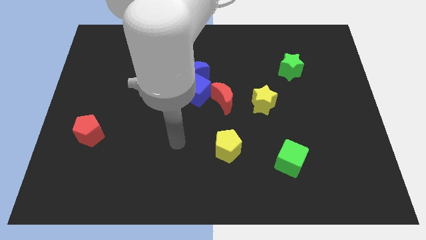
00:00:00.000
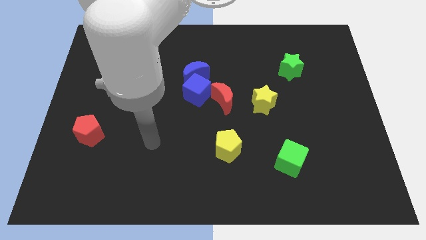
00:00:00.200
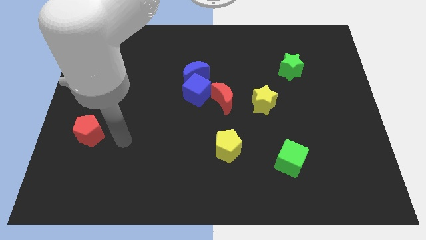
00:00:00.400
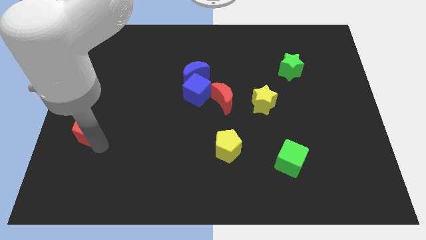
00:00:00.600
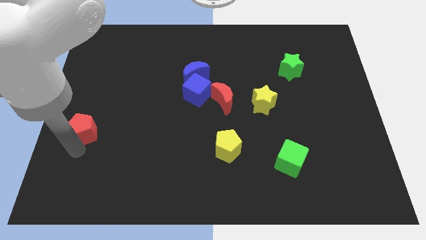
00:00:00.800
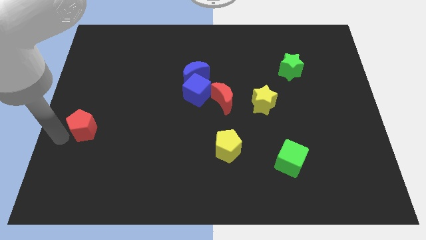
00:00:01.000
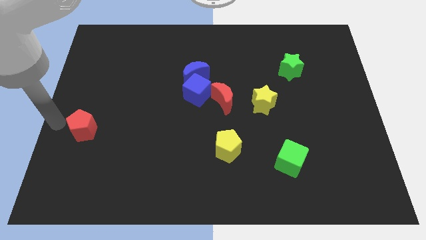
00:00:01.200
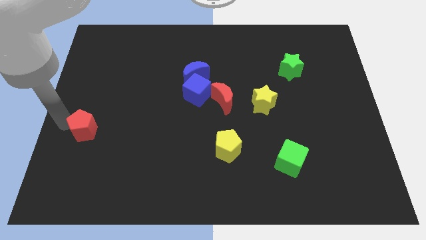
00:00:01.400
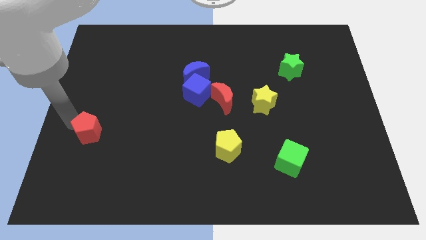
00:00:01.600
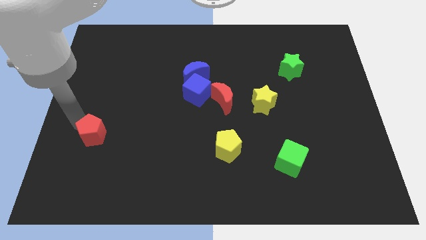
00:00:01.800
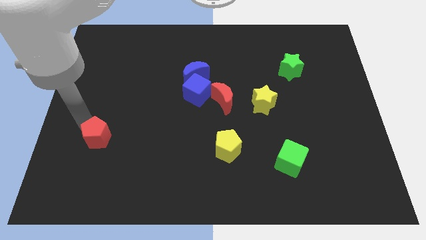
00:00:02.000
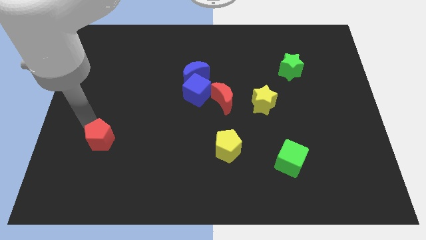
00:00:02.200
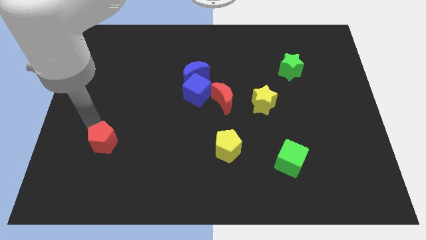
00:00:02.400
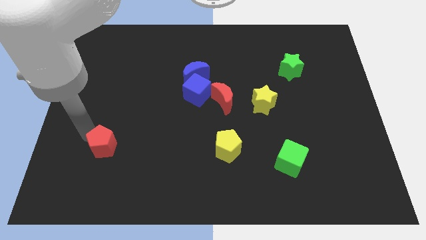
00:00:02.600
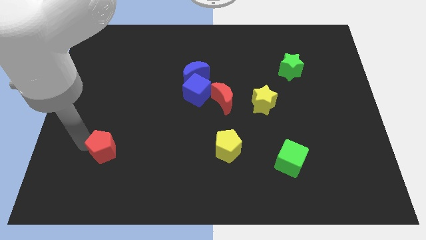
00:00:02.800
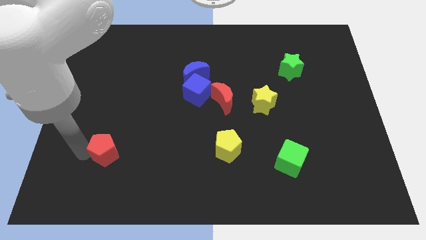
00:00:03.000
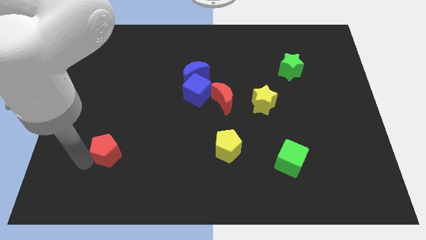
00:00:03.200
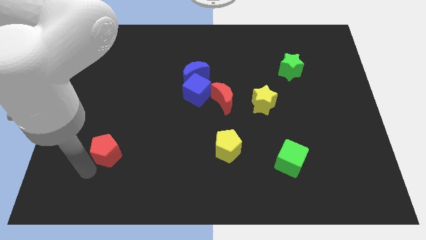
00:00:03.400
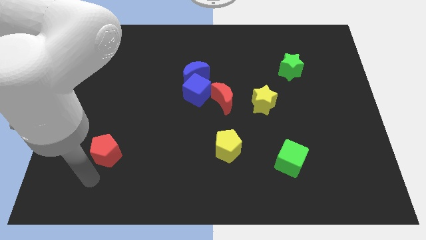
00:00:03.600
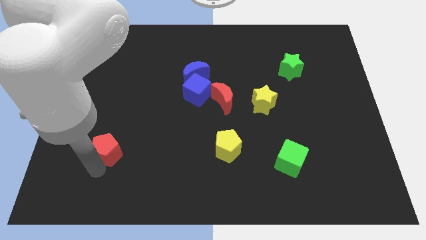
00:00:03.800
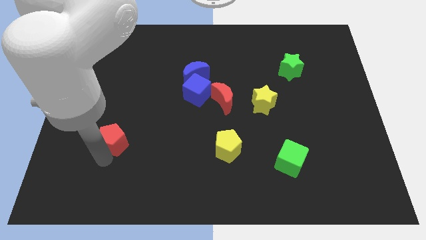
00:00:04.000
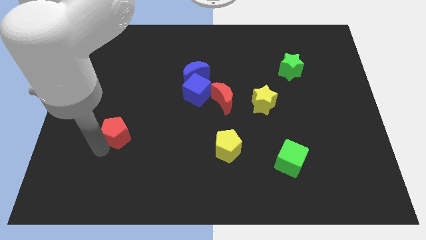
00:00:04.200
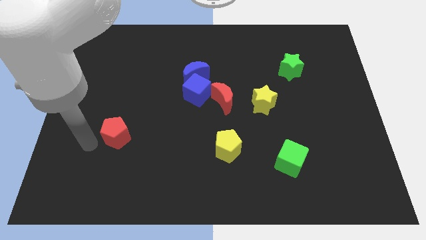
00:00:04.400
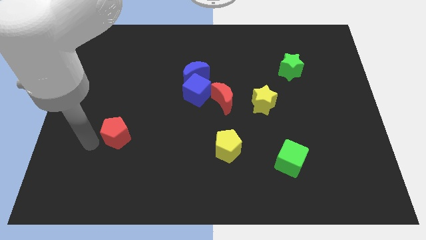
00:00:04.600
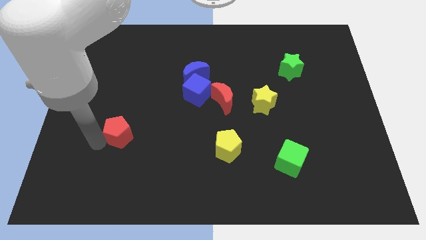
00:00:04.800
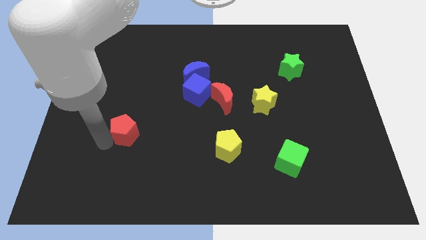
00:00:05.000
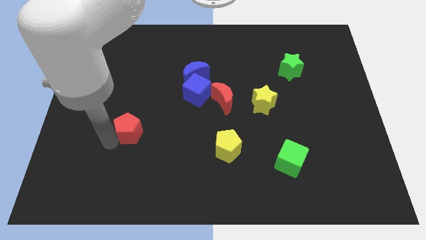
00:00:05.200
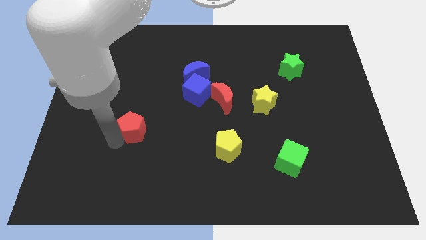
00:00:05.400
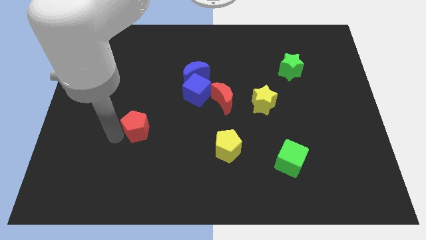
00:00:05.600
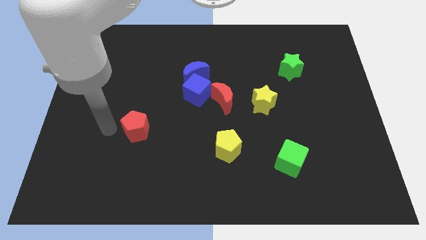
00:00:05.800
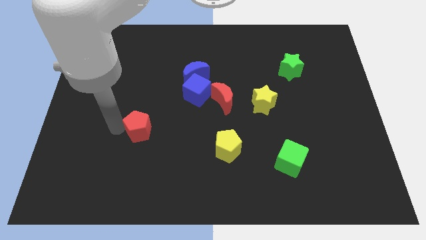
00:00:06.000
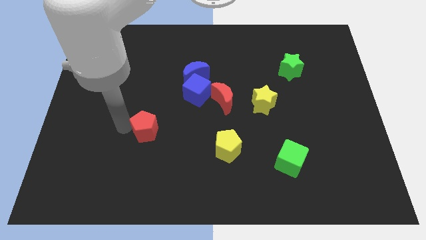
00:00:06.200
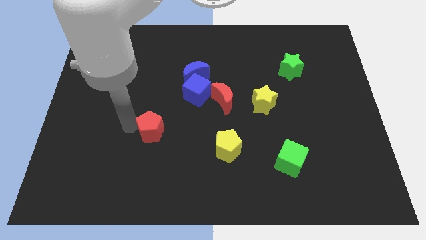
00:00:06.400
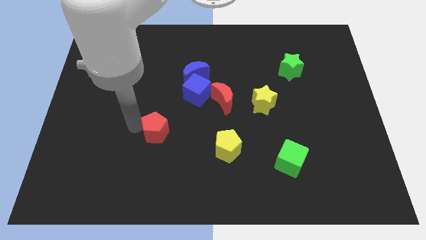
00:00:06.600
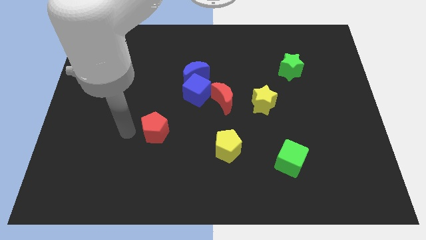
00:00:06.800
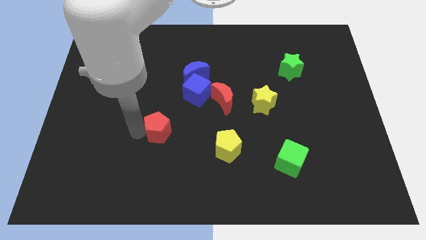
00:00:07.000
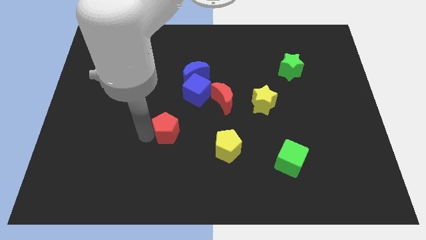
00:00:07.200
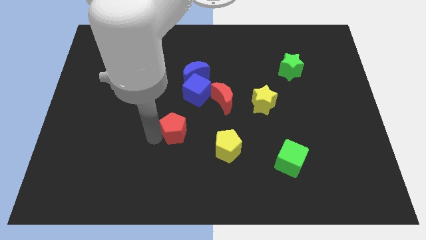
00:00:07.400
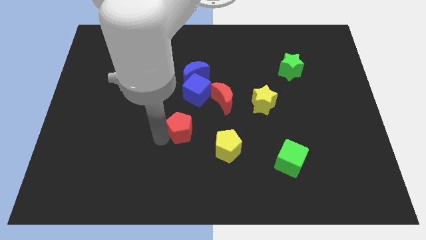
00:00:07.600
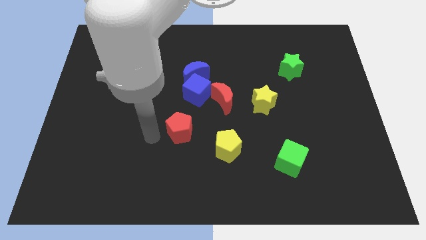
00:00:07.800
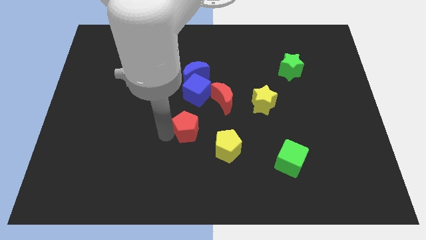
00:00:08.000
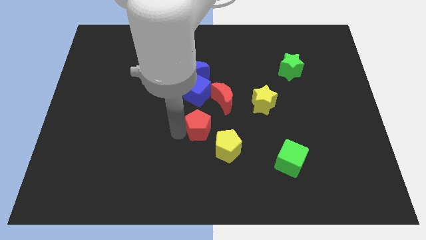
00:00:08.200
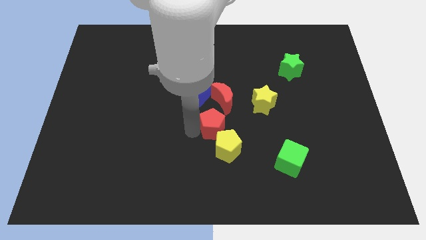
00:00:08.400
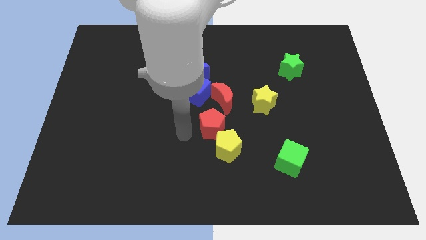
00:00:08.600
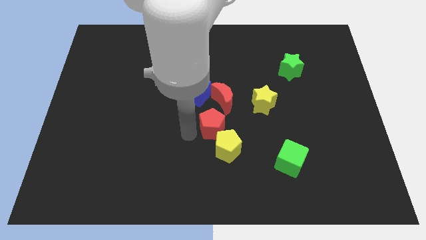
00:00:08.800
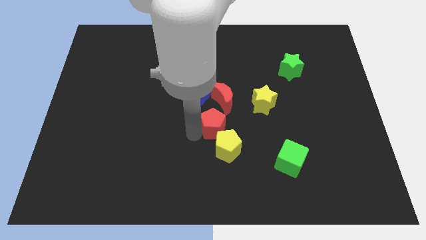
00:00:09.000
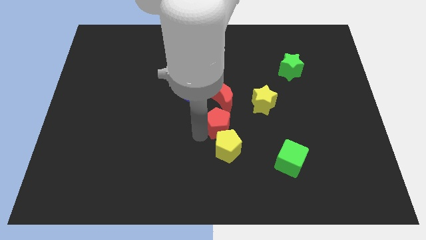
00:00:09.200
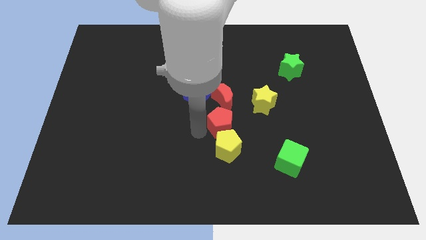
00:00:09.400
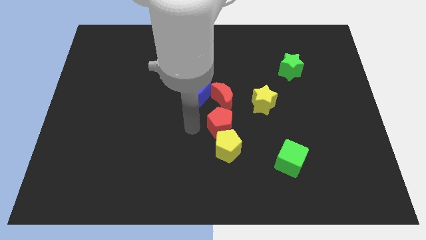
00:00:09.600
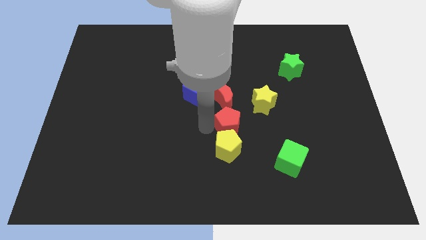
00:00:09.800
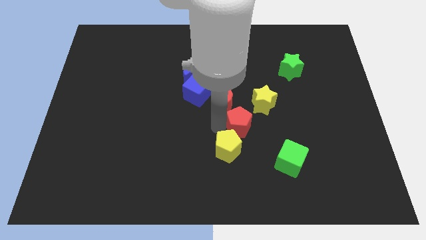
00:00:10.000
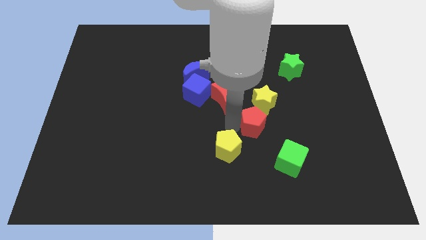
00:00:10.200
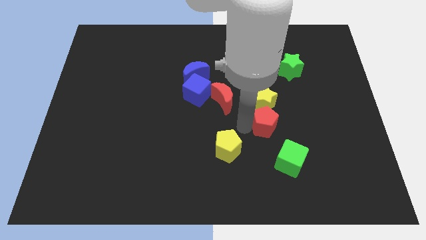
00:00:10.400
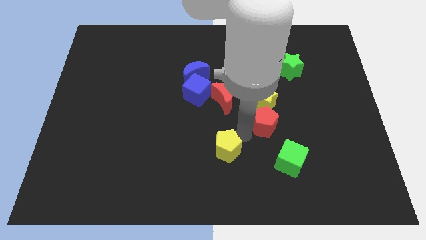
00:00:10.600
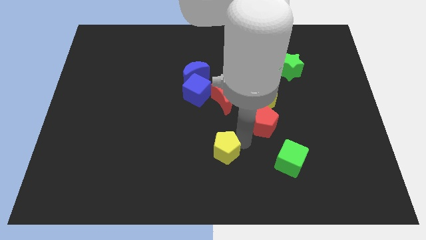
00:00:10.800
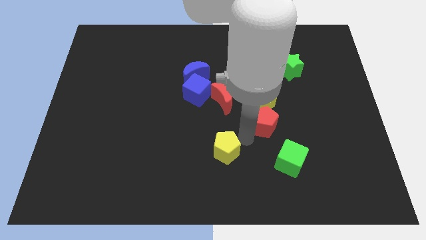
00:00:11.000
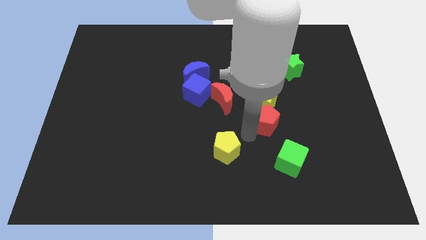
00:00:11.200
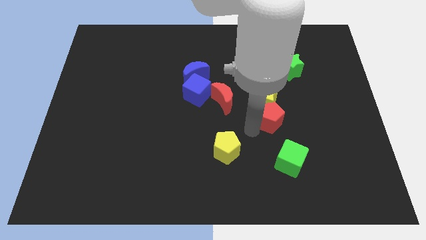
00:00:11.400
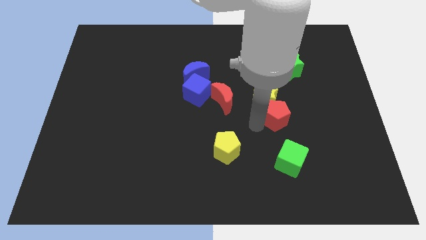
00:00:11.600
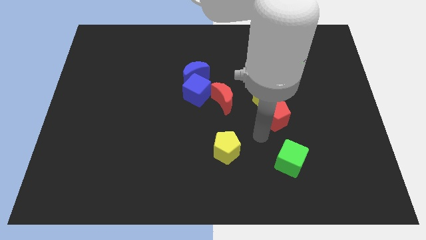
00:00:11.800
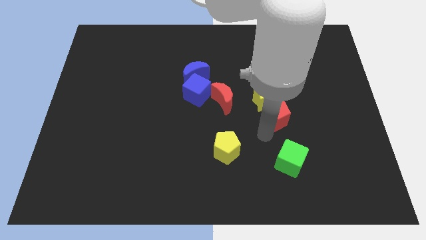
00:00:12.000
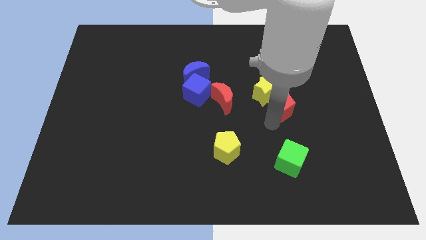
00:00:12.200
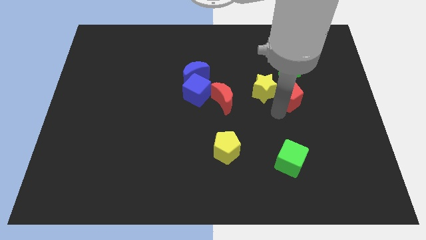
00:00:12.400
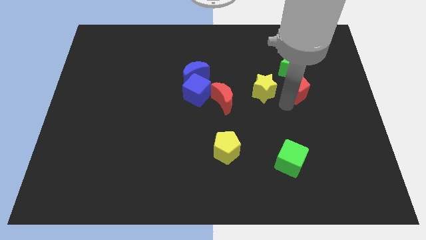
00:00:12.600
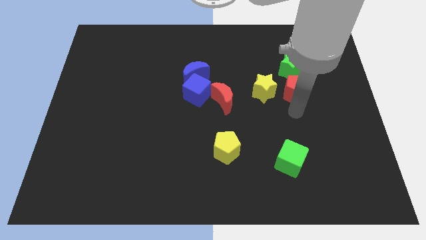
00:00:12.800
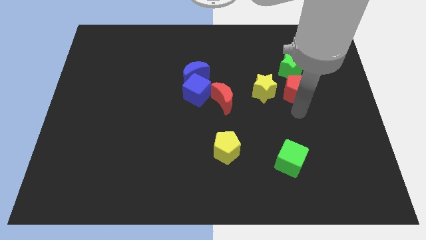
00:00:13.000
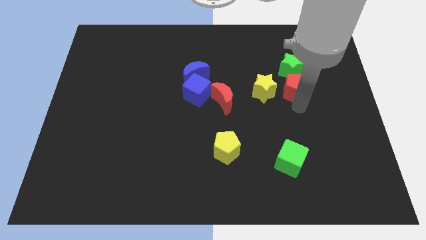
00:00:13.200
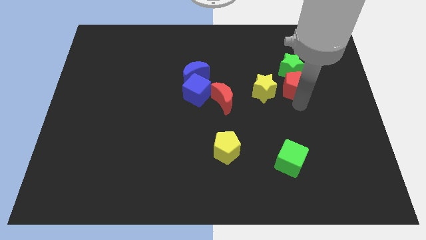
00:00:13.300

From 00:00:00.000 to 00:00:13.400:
move the red pentagon towards the green star
